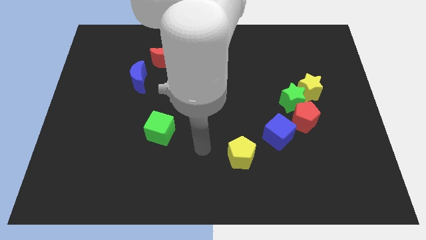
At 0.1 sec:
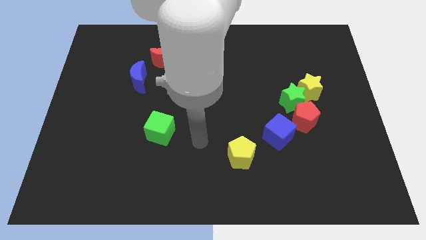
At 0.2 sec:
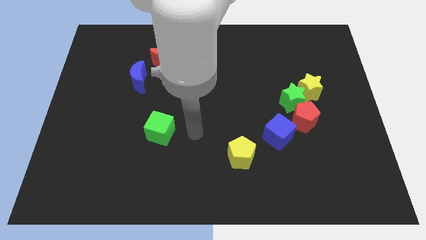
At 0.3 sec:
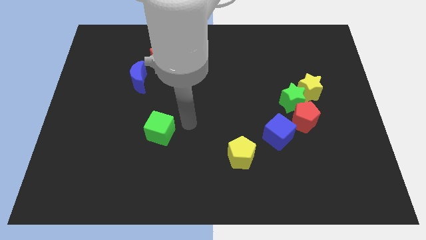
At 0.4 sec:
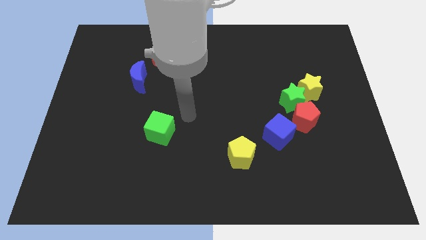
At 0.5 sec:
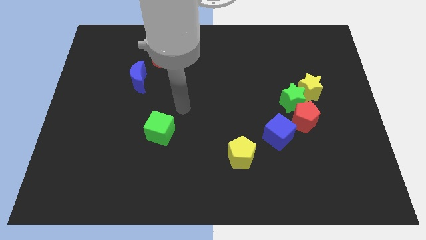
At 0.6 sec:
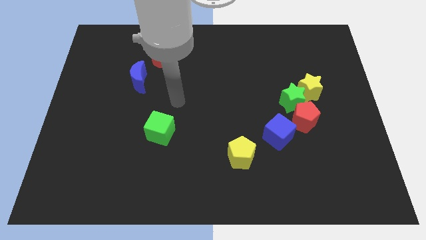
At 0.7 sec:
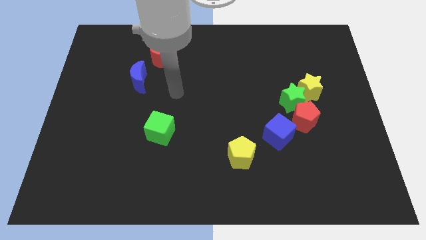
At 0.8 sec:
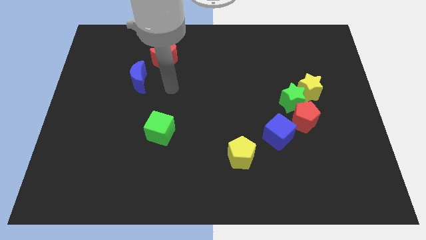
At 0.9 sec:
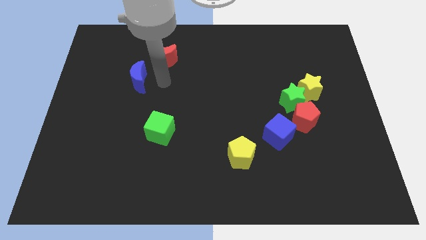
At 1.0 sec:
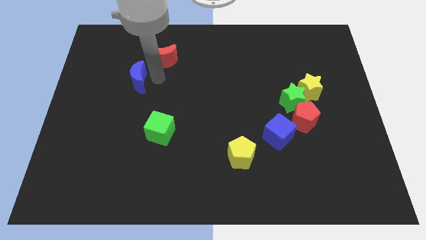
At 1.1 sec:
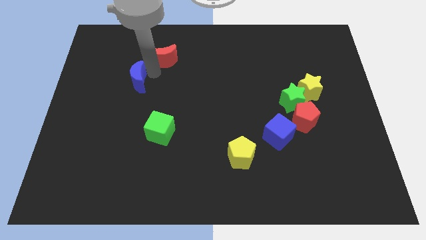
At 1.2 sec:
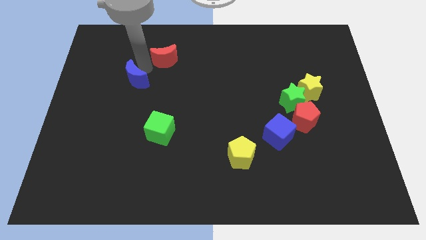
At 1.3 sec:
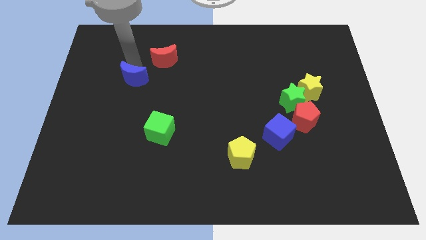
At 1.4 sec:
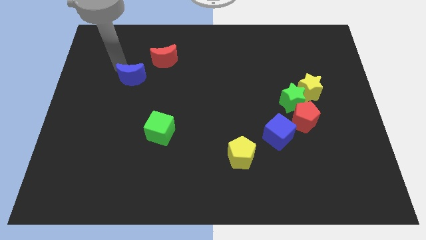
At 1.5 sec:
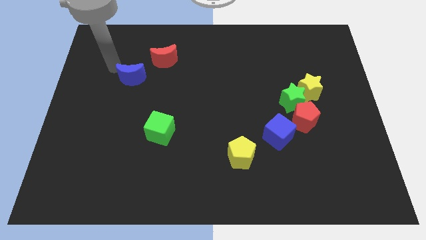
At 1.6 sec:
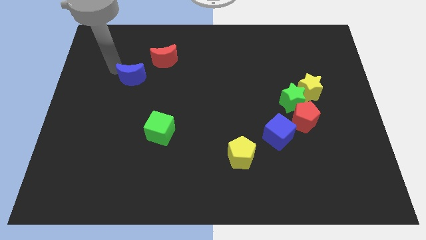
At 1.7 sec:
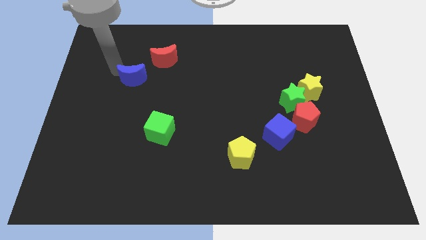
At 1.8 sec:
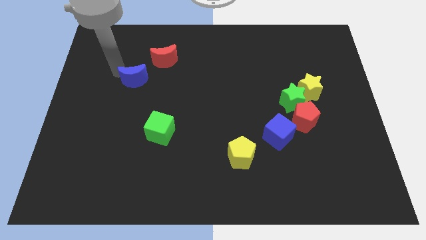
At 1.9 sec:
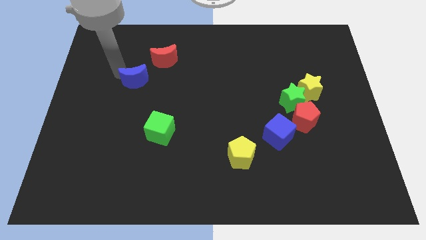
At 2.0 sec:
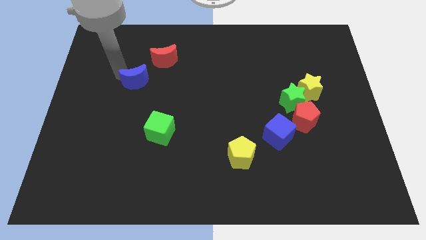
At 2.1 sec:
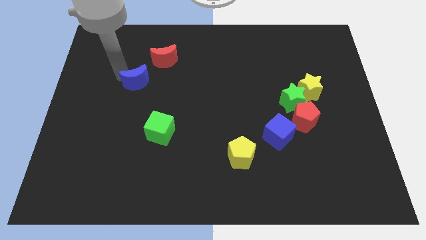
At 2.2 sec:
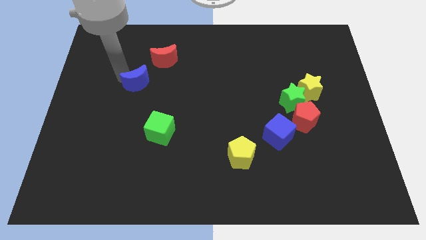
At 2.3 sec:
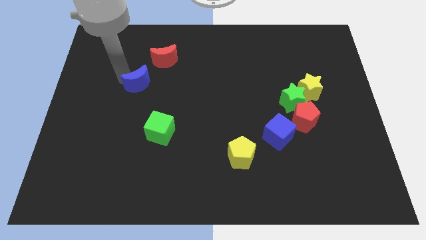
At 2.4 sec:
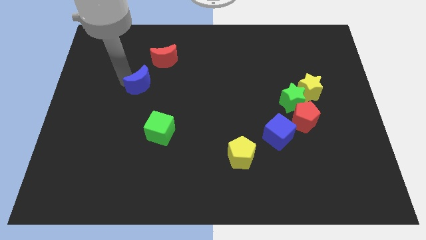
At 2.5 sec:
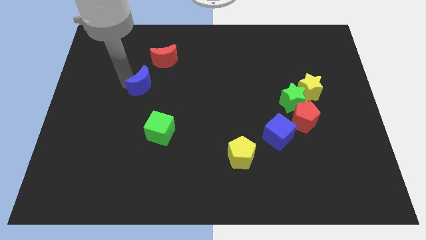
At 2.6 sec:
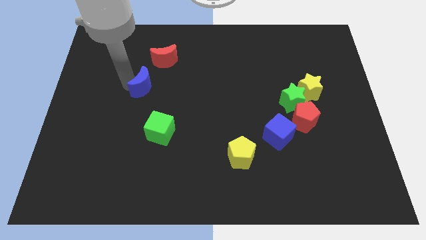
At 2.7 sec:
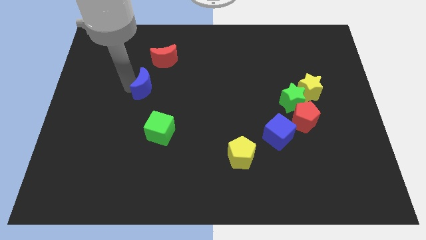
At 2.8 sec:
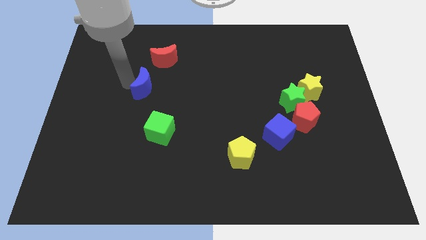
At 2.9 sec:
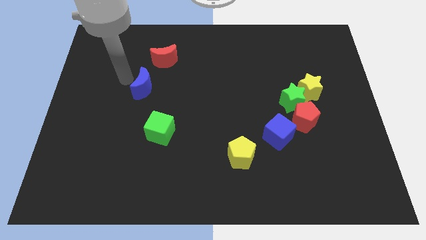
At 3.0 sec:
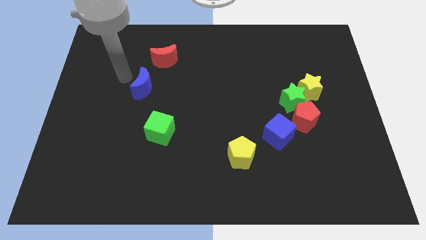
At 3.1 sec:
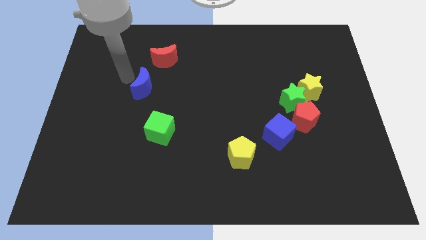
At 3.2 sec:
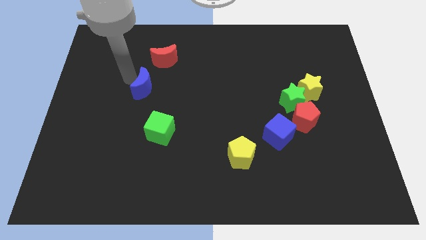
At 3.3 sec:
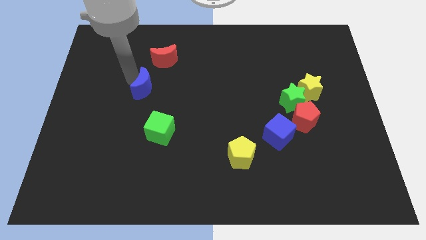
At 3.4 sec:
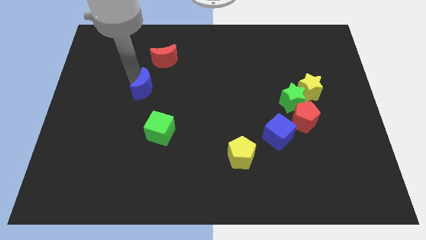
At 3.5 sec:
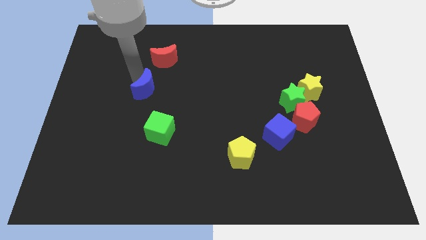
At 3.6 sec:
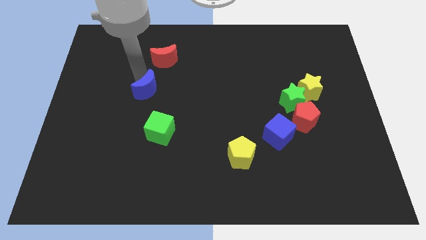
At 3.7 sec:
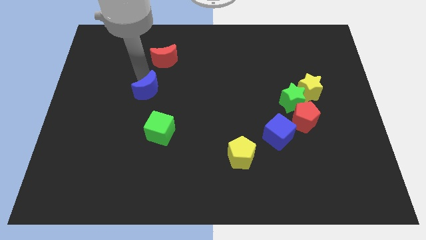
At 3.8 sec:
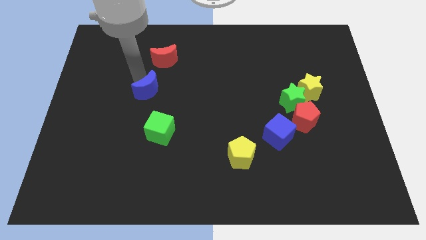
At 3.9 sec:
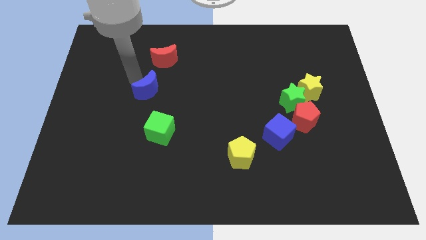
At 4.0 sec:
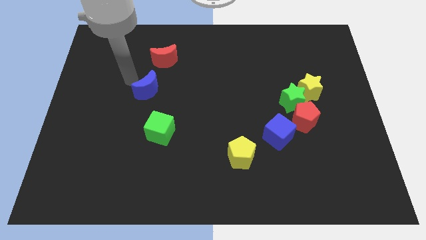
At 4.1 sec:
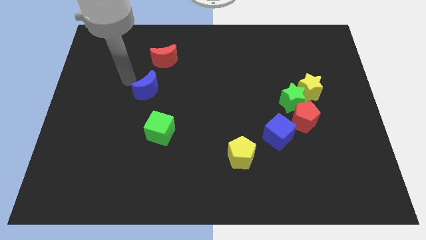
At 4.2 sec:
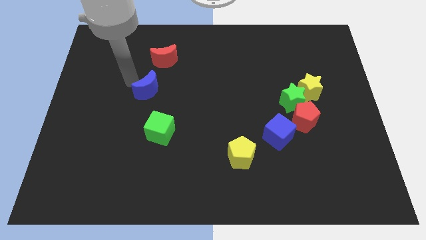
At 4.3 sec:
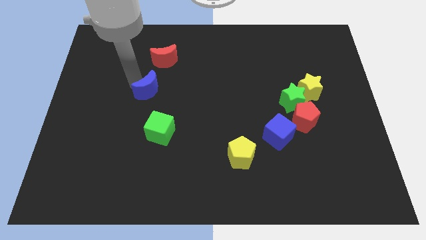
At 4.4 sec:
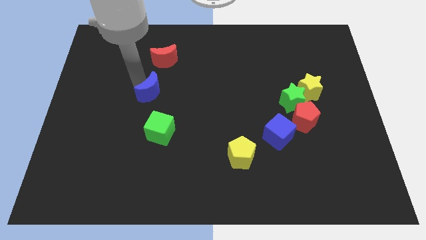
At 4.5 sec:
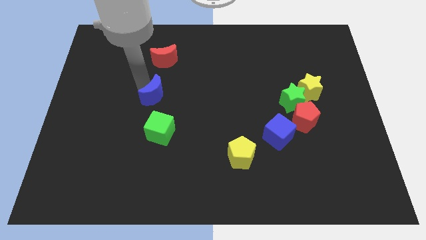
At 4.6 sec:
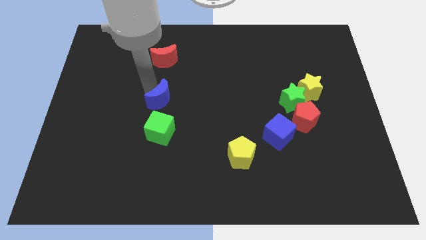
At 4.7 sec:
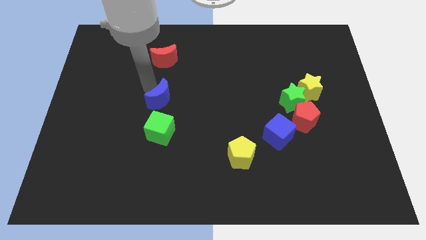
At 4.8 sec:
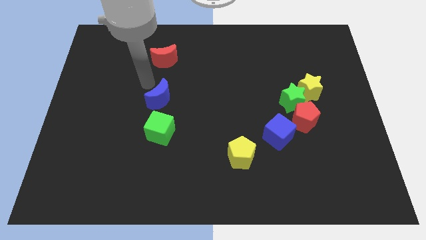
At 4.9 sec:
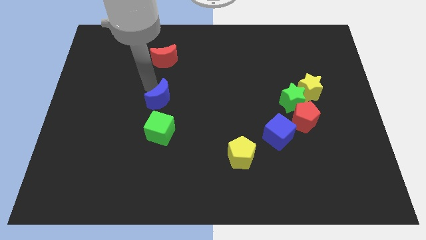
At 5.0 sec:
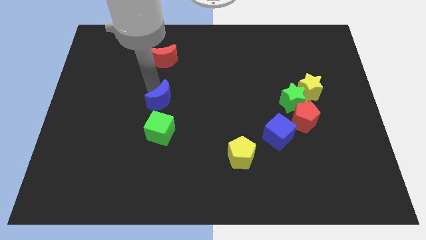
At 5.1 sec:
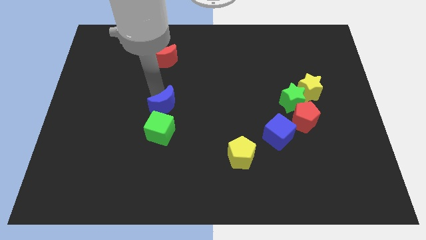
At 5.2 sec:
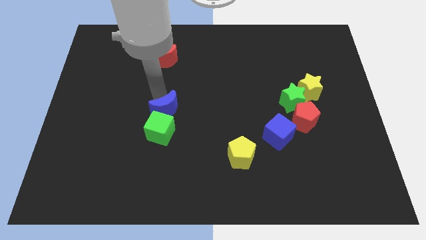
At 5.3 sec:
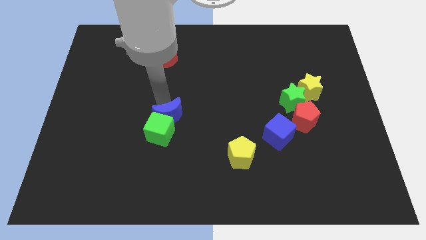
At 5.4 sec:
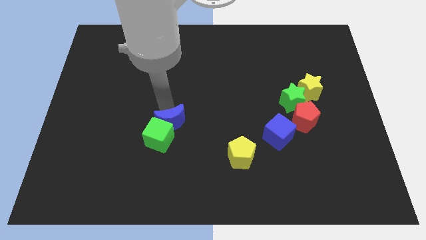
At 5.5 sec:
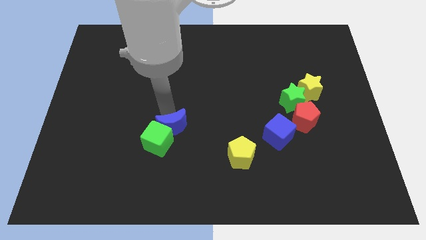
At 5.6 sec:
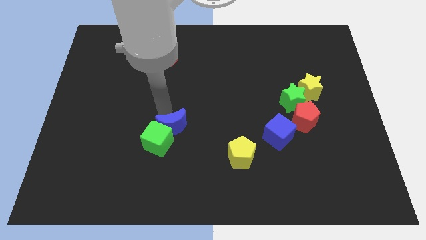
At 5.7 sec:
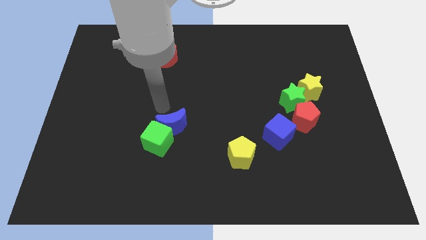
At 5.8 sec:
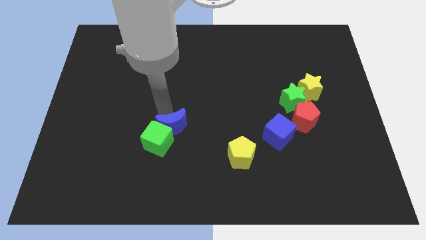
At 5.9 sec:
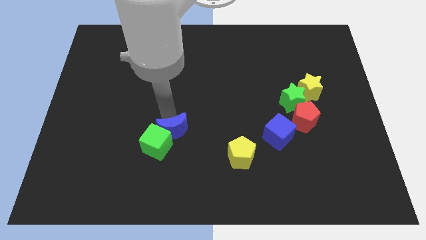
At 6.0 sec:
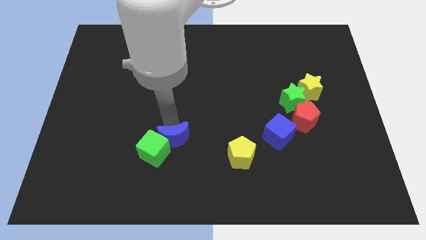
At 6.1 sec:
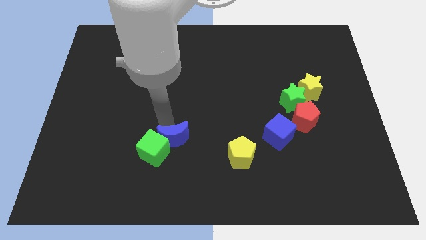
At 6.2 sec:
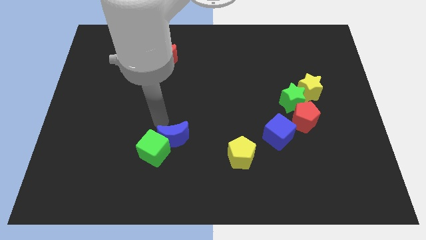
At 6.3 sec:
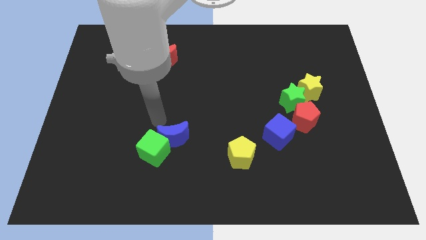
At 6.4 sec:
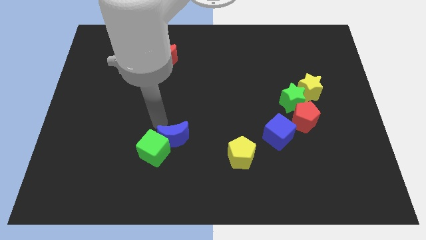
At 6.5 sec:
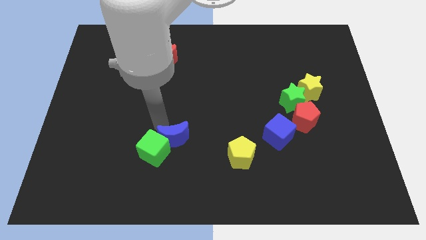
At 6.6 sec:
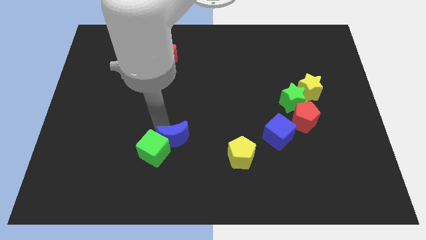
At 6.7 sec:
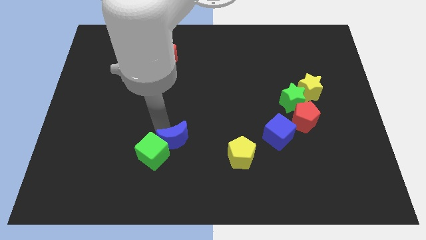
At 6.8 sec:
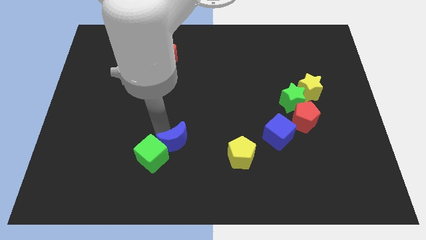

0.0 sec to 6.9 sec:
push the blue moon just left of the yellow pentagon

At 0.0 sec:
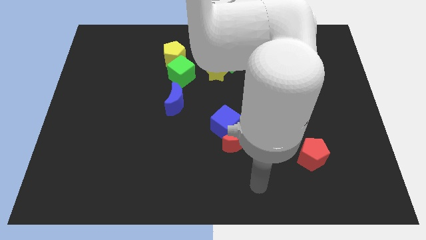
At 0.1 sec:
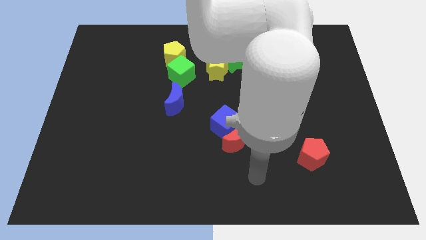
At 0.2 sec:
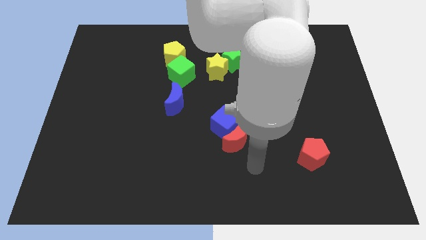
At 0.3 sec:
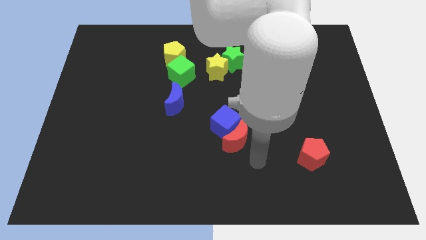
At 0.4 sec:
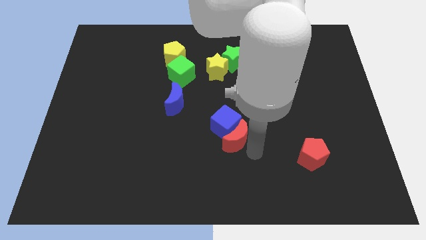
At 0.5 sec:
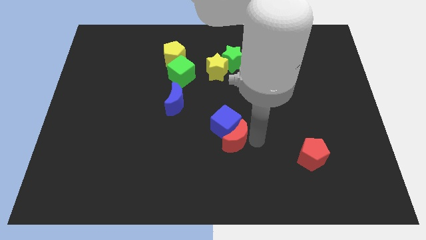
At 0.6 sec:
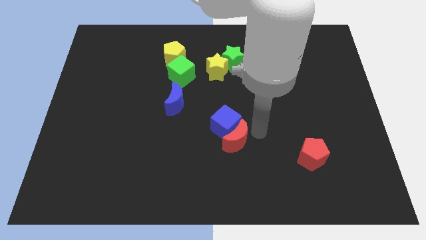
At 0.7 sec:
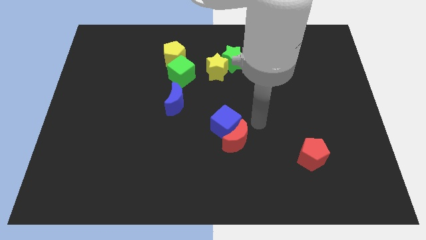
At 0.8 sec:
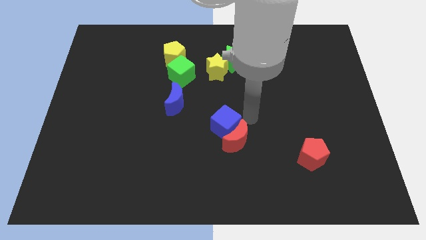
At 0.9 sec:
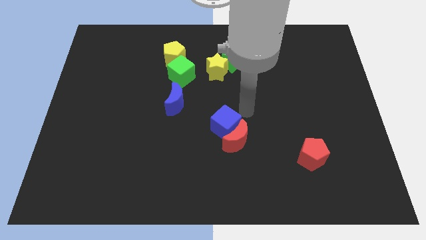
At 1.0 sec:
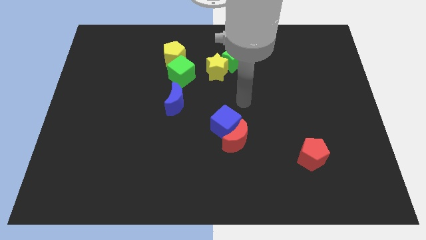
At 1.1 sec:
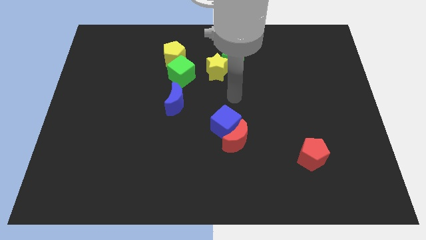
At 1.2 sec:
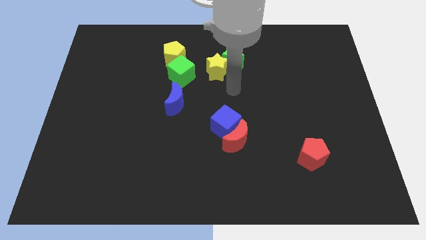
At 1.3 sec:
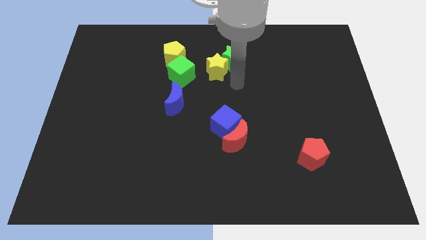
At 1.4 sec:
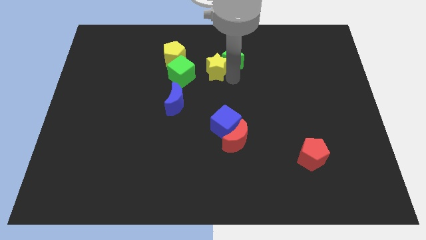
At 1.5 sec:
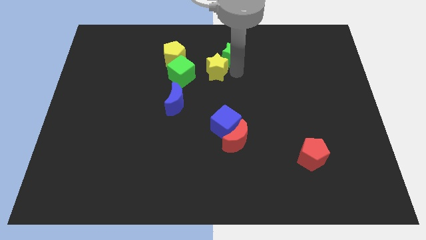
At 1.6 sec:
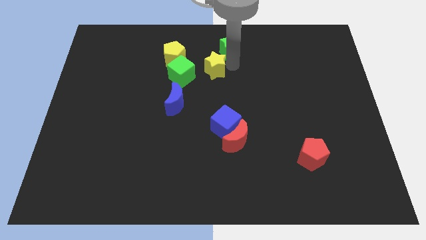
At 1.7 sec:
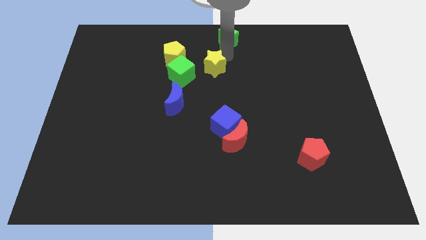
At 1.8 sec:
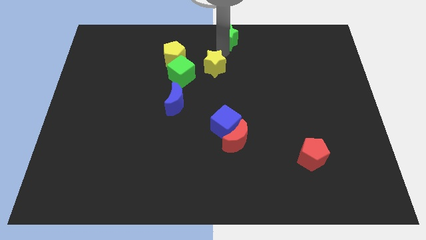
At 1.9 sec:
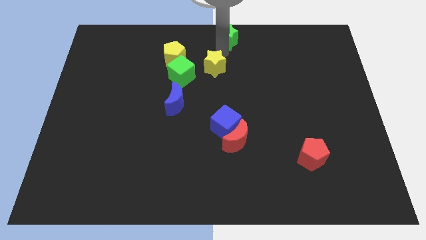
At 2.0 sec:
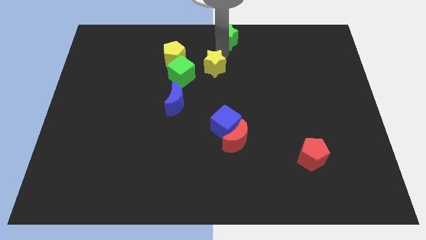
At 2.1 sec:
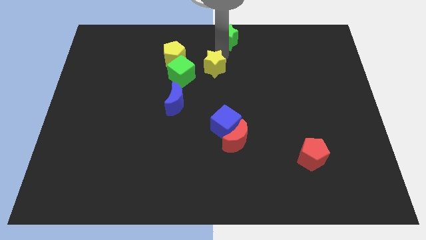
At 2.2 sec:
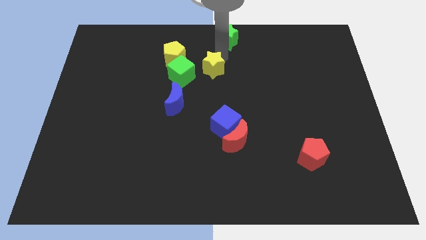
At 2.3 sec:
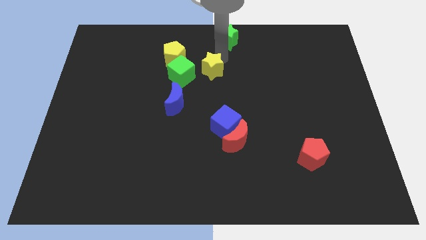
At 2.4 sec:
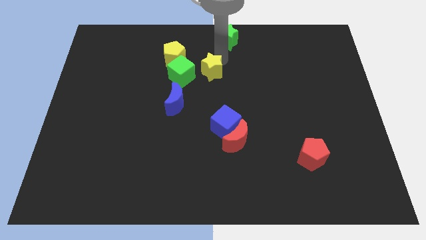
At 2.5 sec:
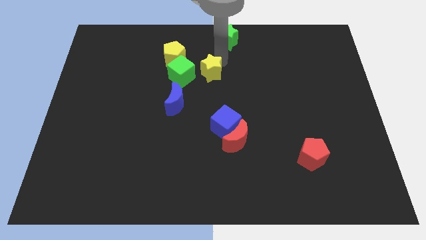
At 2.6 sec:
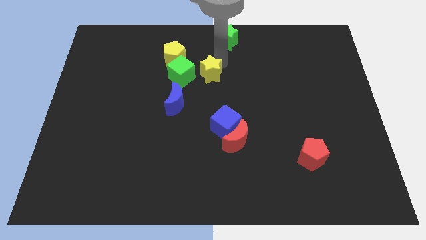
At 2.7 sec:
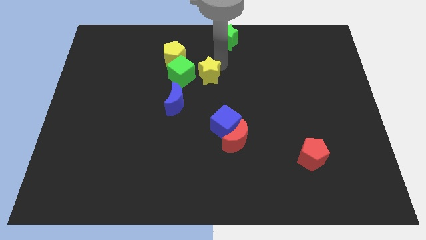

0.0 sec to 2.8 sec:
push the yellow star diagonally down and to the right of the green cube
